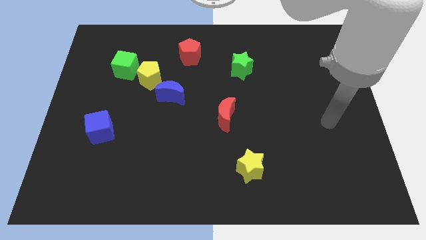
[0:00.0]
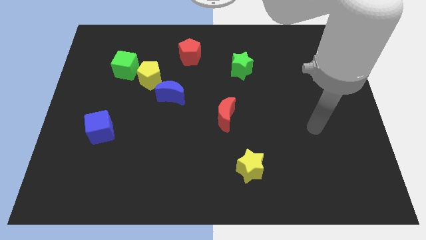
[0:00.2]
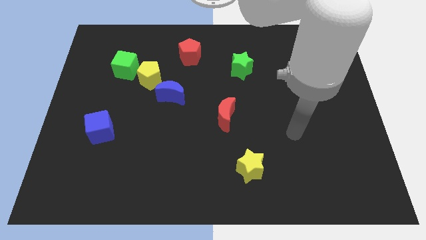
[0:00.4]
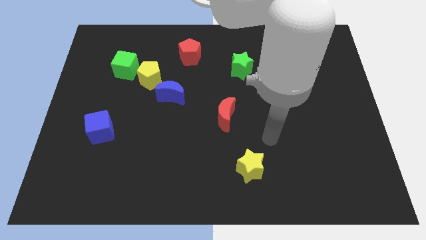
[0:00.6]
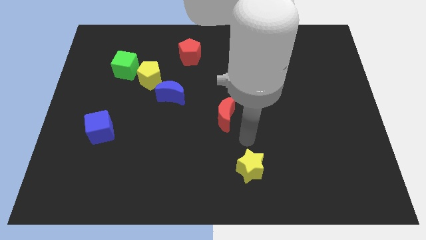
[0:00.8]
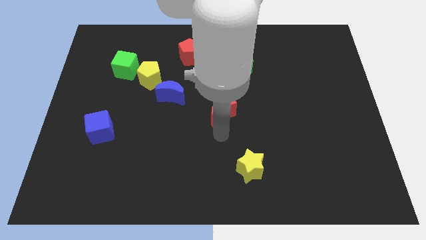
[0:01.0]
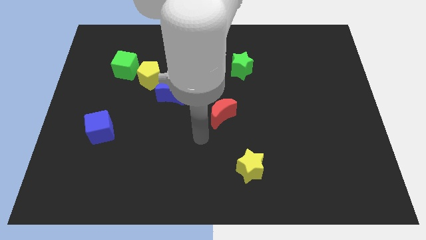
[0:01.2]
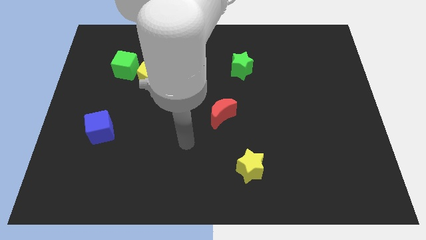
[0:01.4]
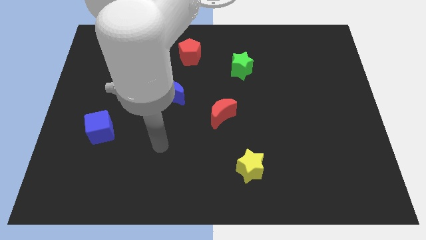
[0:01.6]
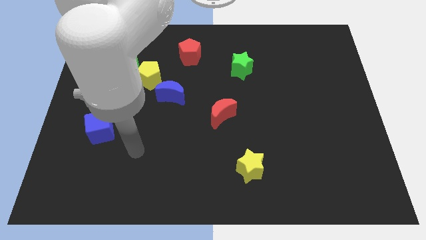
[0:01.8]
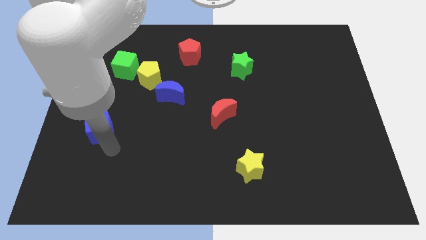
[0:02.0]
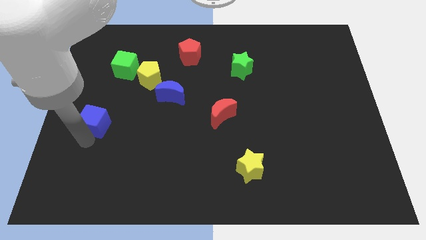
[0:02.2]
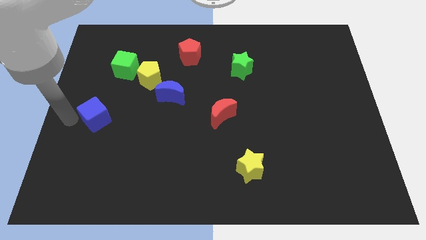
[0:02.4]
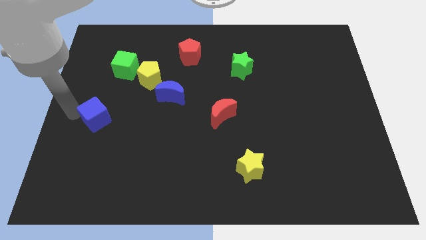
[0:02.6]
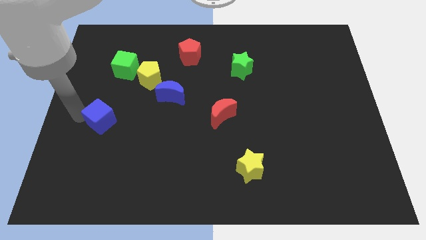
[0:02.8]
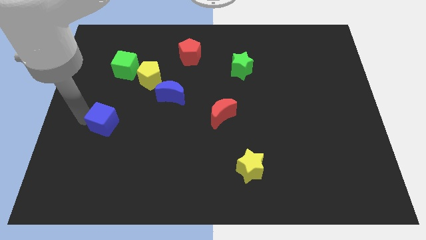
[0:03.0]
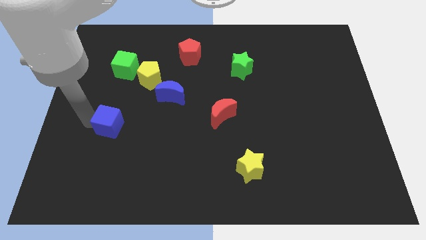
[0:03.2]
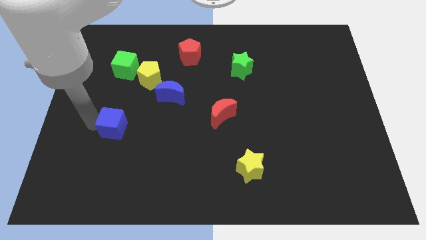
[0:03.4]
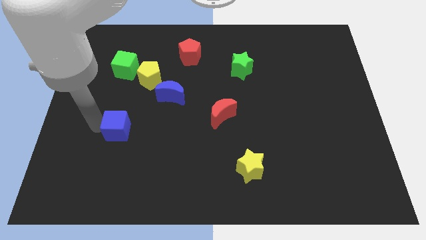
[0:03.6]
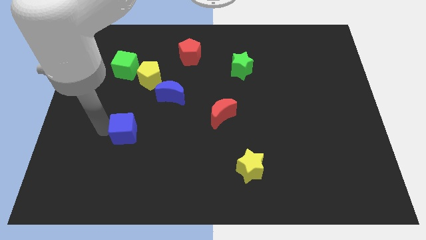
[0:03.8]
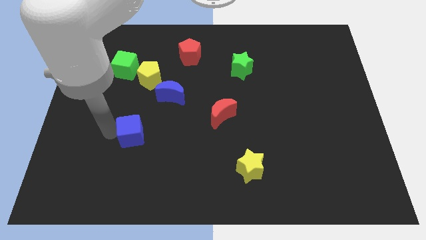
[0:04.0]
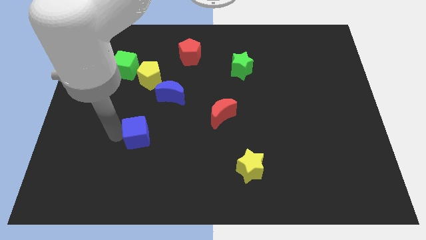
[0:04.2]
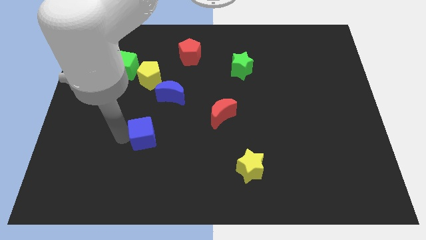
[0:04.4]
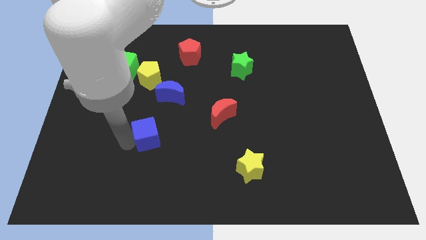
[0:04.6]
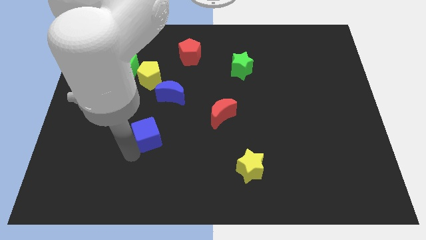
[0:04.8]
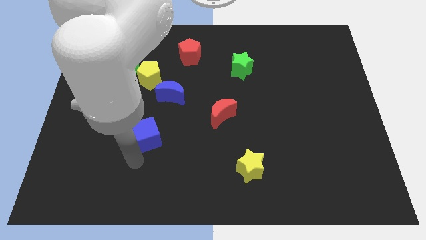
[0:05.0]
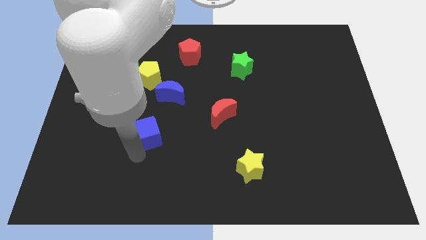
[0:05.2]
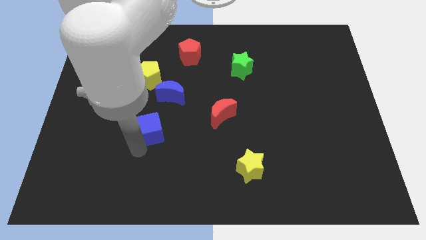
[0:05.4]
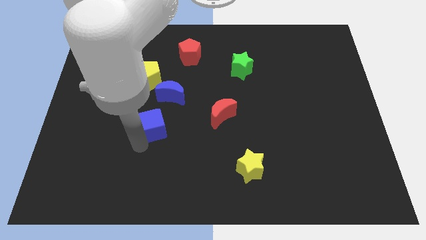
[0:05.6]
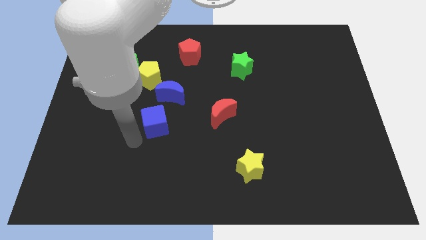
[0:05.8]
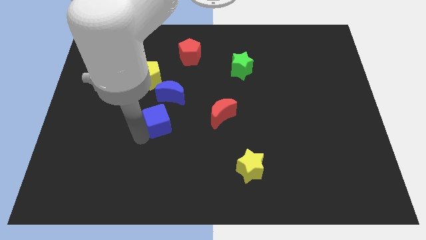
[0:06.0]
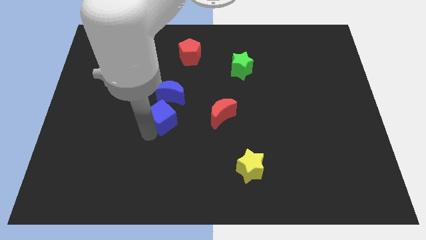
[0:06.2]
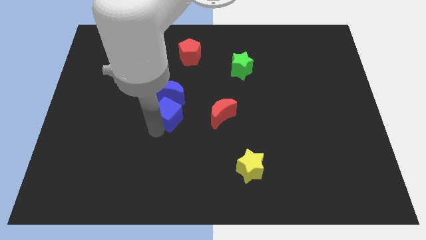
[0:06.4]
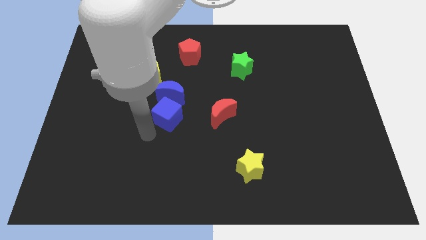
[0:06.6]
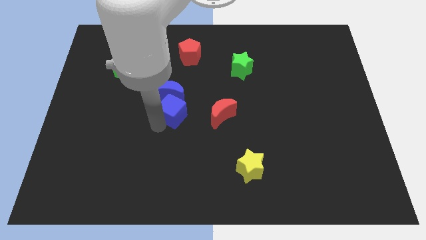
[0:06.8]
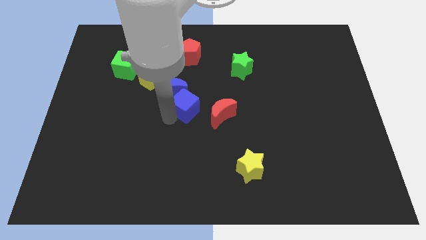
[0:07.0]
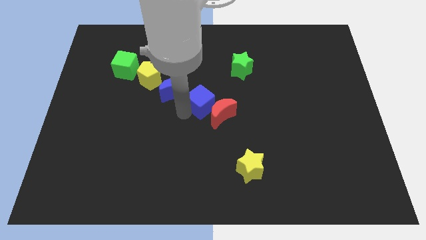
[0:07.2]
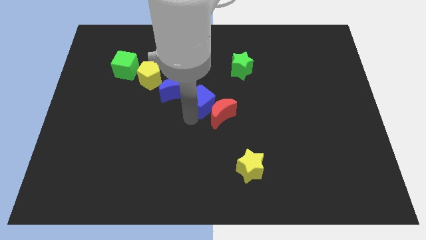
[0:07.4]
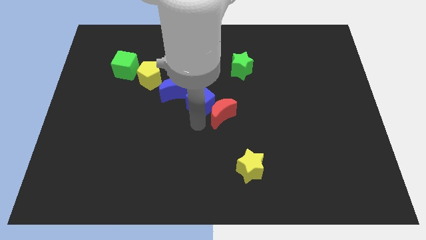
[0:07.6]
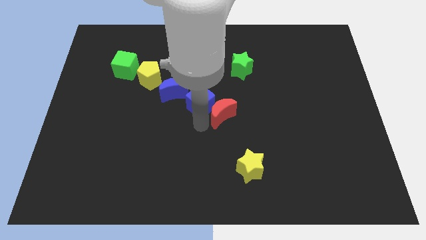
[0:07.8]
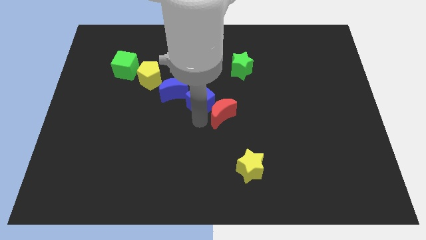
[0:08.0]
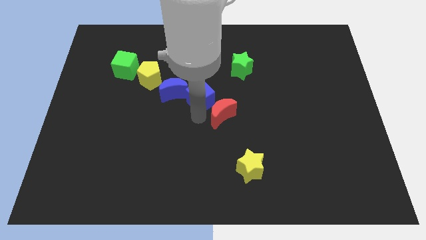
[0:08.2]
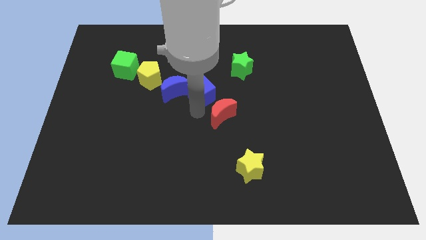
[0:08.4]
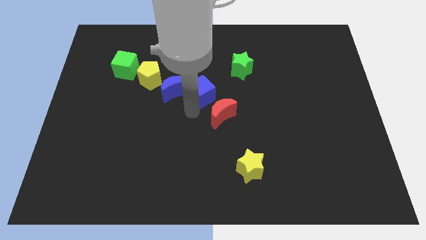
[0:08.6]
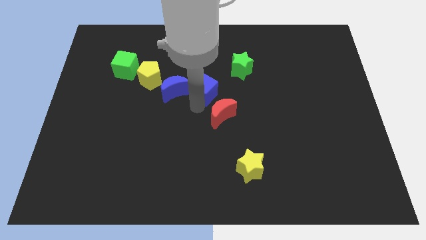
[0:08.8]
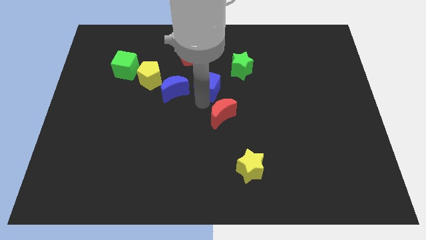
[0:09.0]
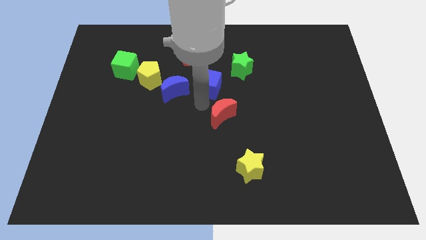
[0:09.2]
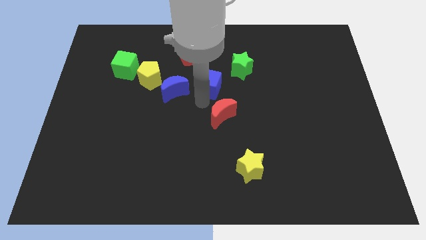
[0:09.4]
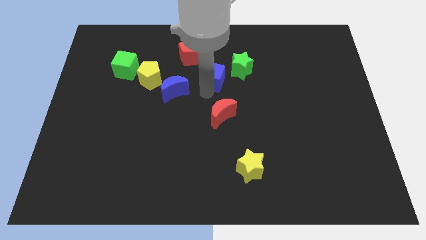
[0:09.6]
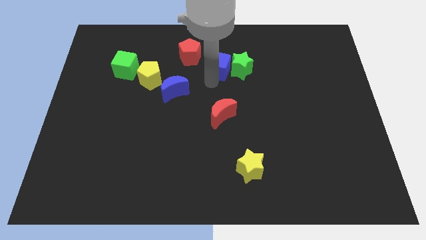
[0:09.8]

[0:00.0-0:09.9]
move the blue cube right of the red pentagon

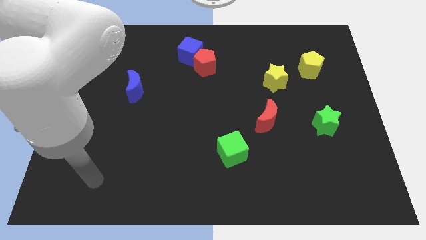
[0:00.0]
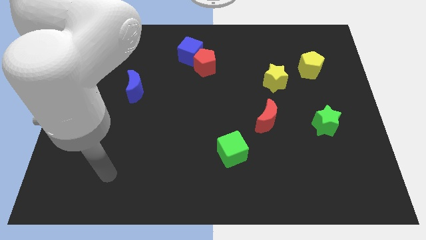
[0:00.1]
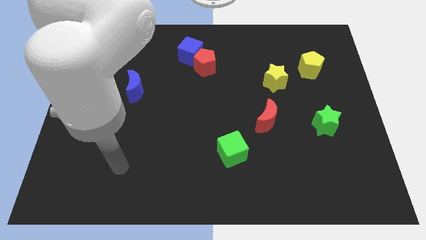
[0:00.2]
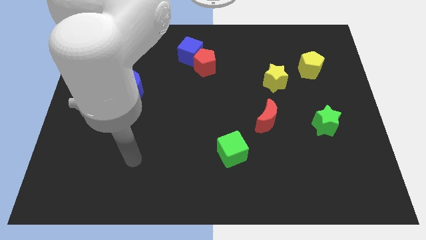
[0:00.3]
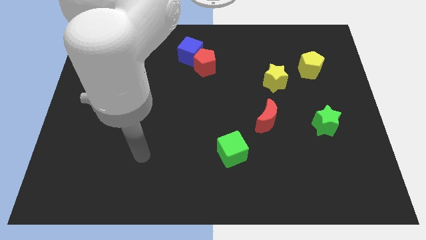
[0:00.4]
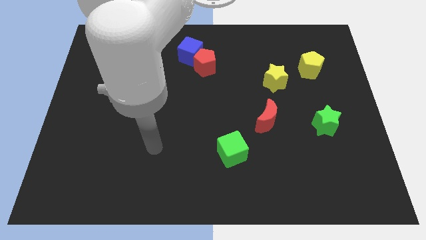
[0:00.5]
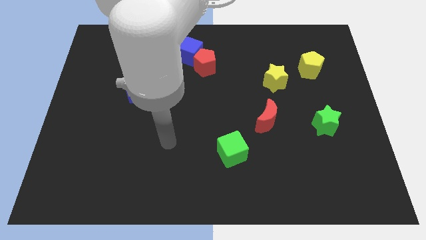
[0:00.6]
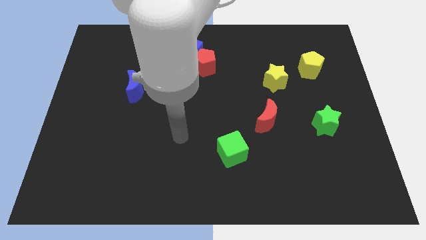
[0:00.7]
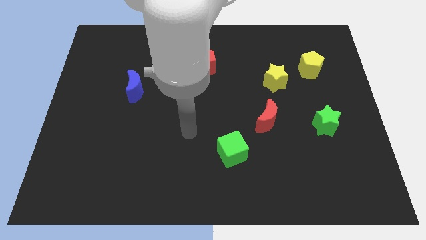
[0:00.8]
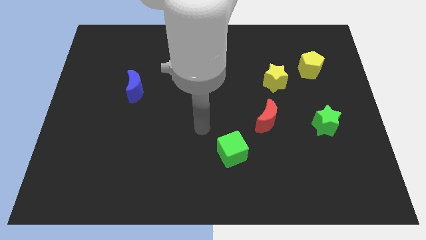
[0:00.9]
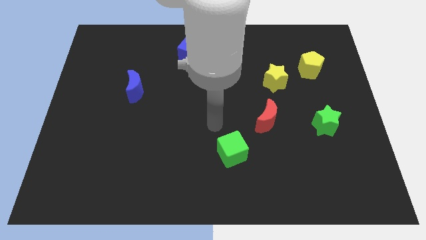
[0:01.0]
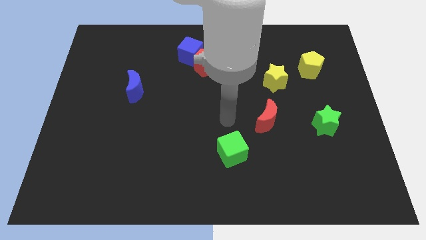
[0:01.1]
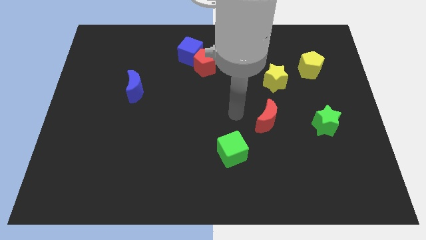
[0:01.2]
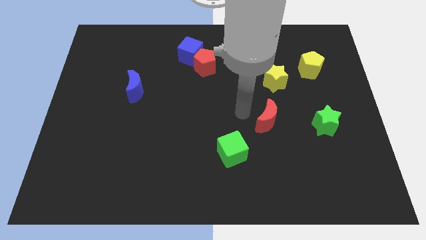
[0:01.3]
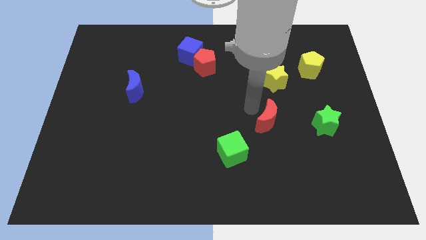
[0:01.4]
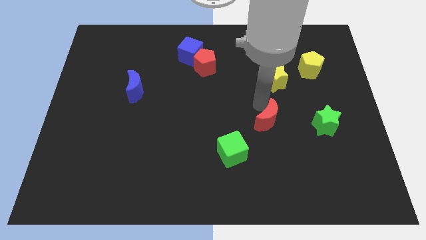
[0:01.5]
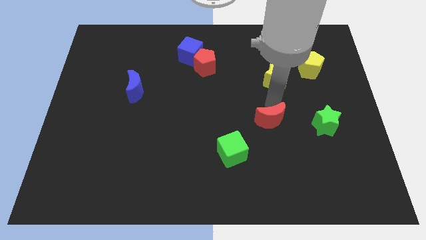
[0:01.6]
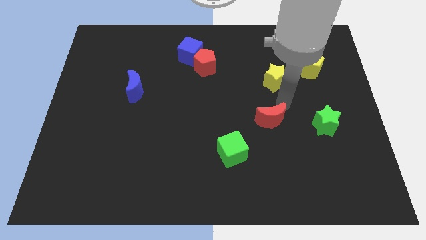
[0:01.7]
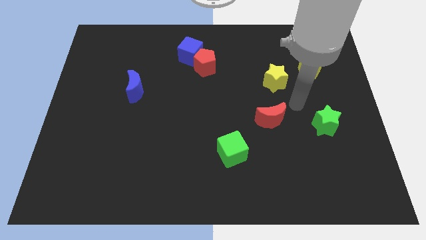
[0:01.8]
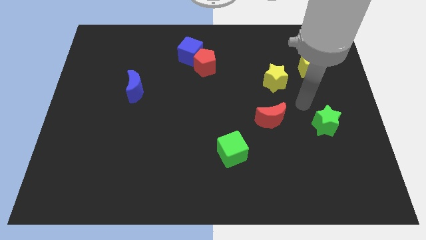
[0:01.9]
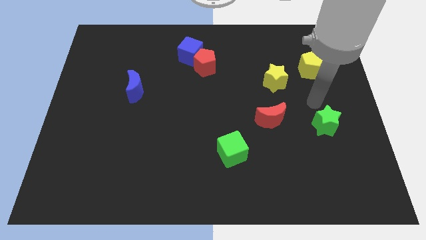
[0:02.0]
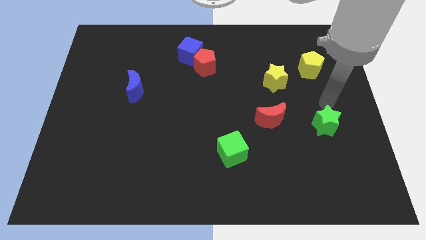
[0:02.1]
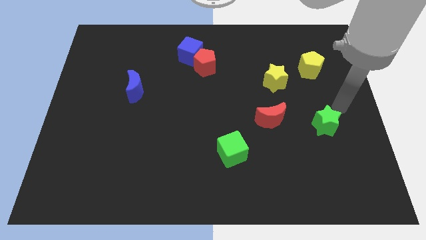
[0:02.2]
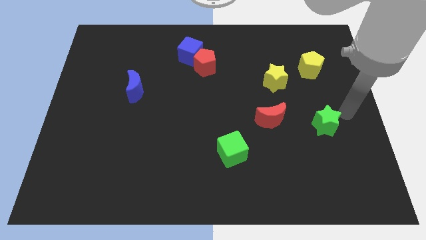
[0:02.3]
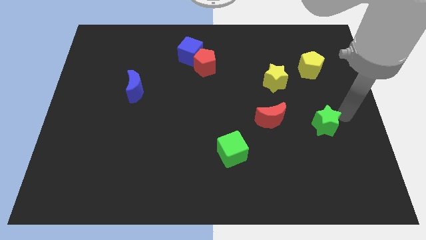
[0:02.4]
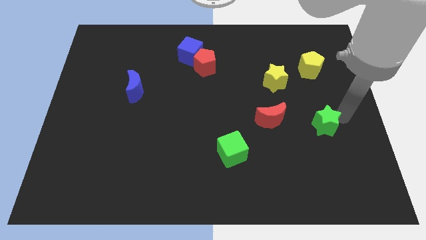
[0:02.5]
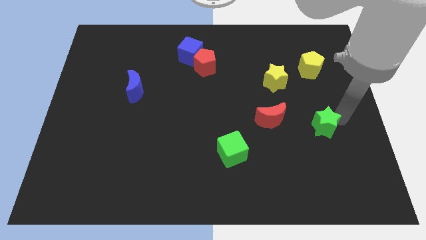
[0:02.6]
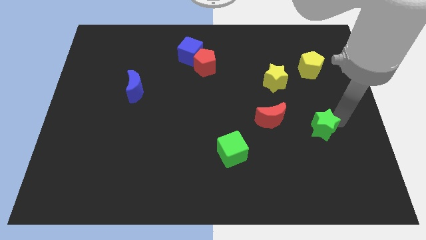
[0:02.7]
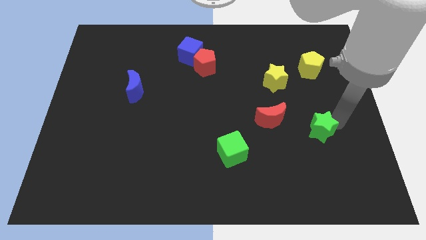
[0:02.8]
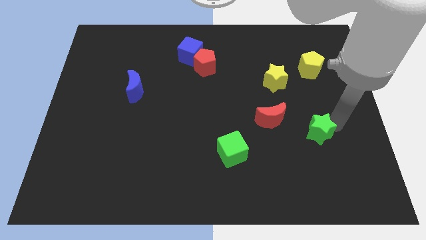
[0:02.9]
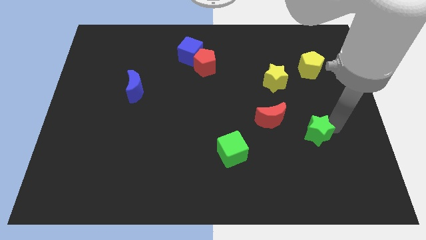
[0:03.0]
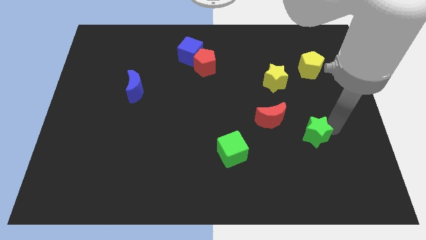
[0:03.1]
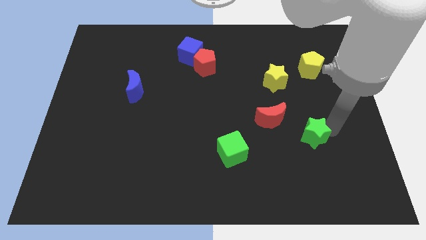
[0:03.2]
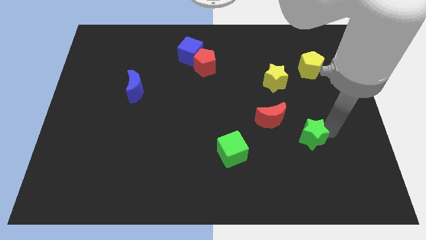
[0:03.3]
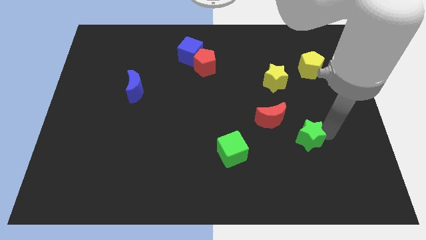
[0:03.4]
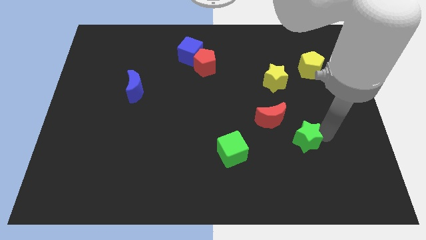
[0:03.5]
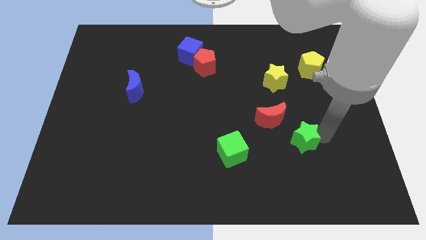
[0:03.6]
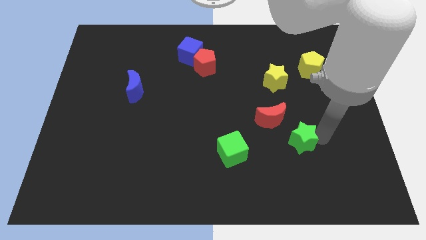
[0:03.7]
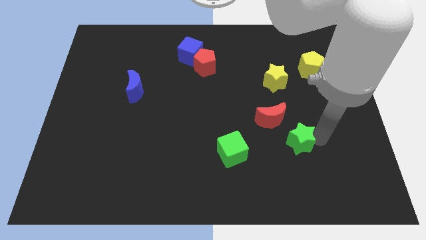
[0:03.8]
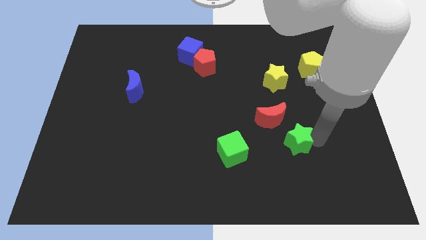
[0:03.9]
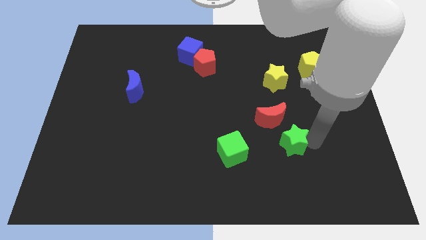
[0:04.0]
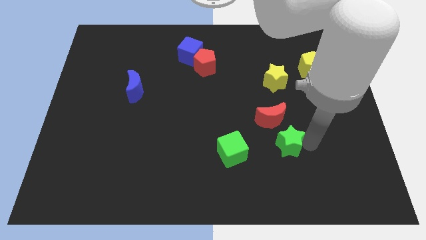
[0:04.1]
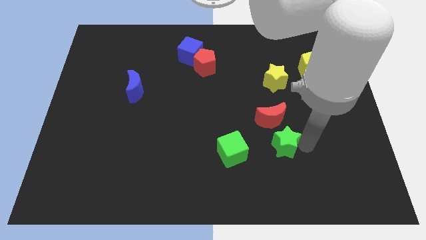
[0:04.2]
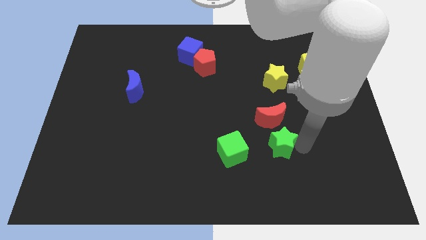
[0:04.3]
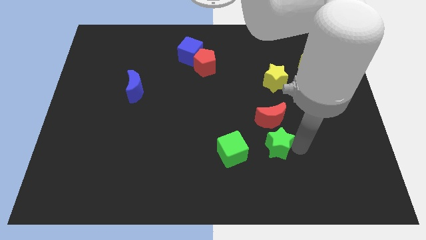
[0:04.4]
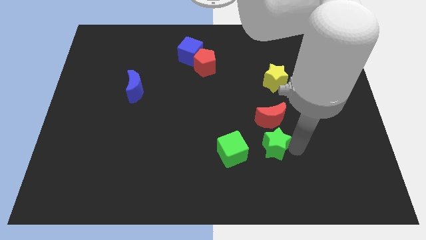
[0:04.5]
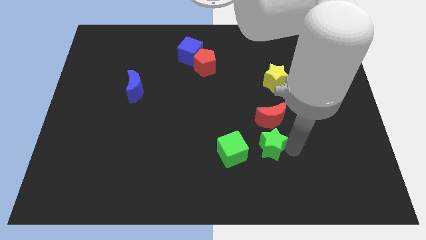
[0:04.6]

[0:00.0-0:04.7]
put the green star to the bottom left side of the red moon
